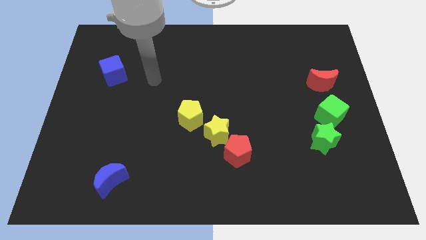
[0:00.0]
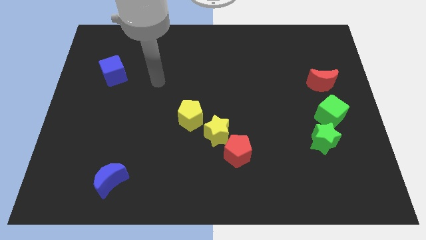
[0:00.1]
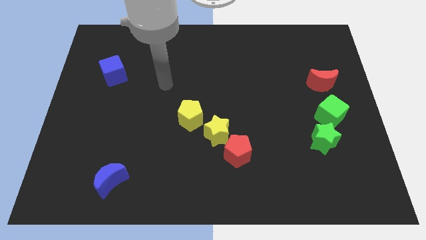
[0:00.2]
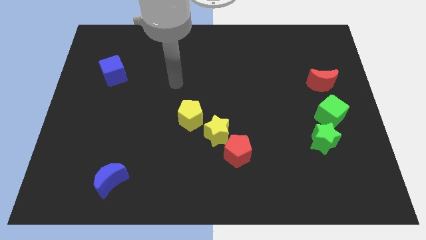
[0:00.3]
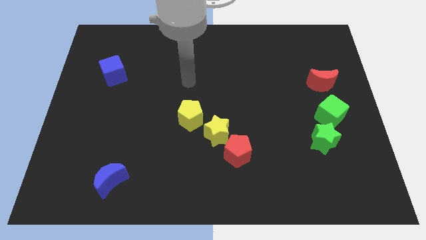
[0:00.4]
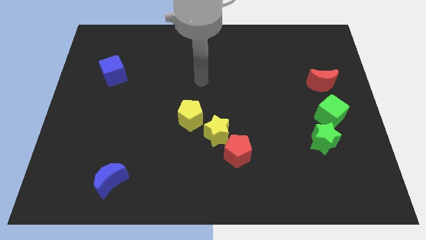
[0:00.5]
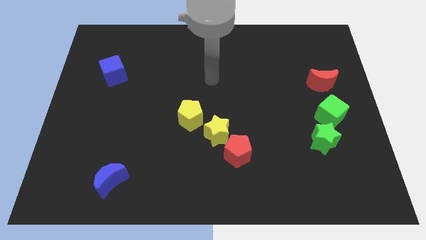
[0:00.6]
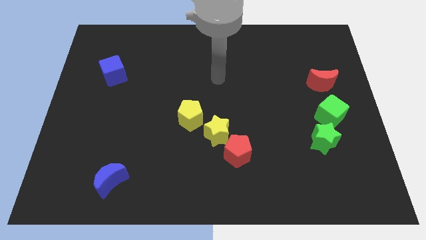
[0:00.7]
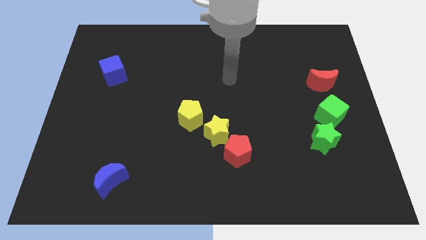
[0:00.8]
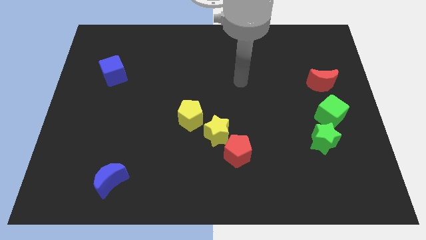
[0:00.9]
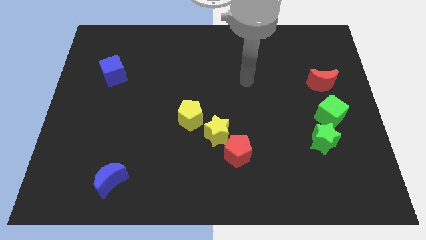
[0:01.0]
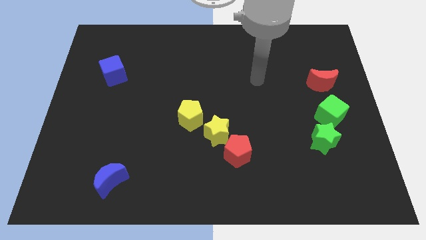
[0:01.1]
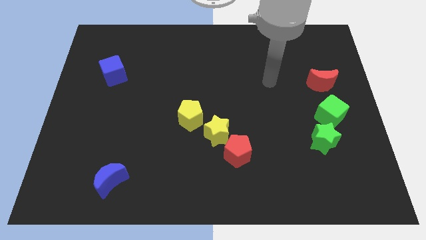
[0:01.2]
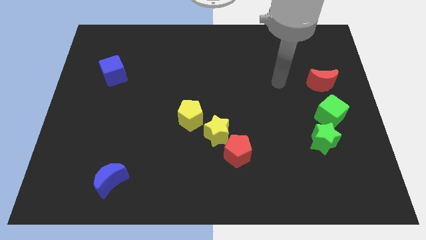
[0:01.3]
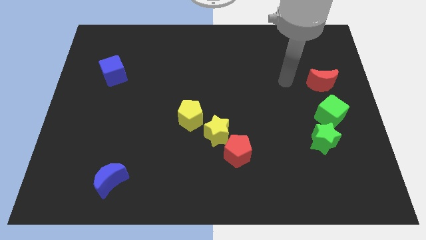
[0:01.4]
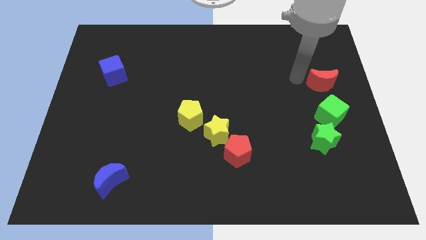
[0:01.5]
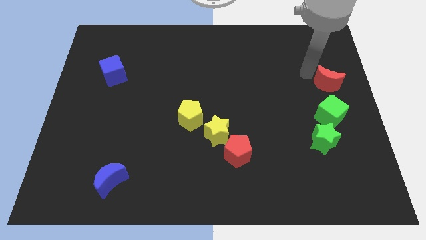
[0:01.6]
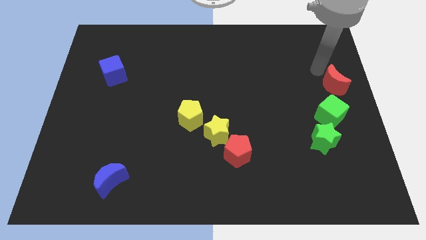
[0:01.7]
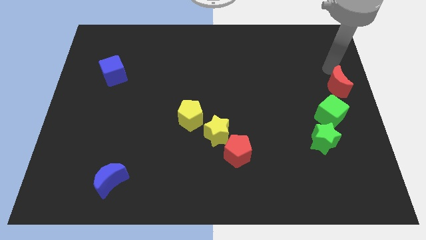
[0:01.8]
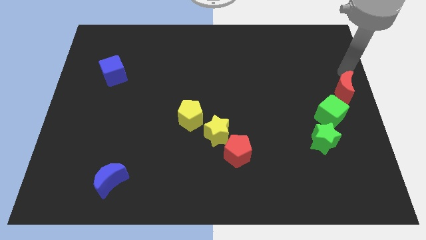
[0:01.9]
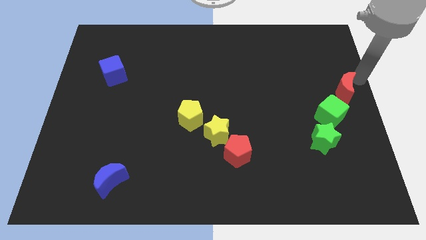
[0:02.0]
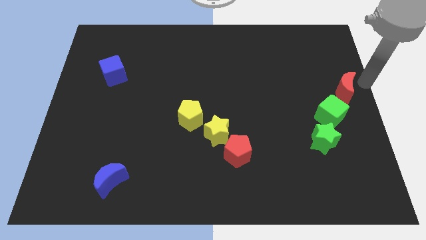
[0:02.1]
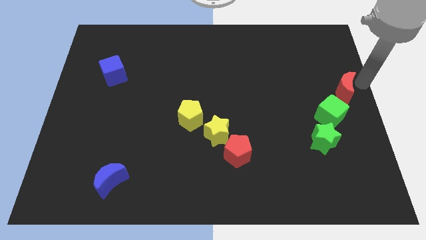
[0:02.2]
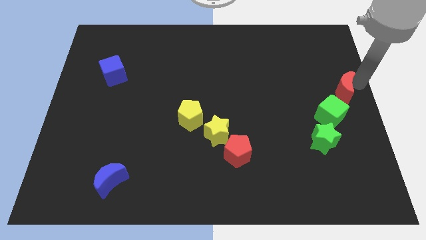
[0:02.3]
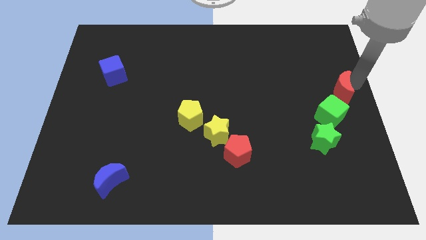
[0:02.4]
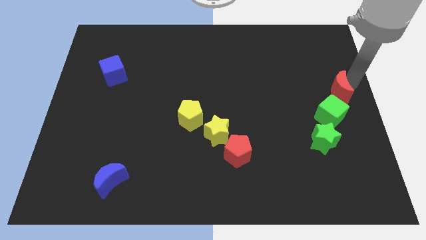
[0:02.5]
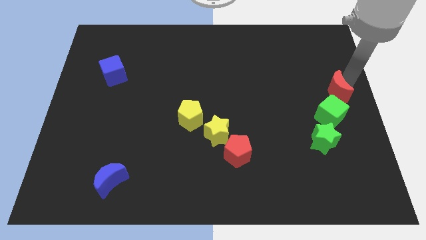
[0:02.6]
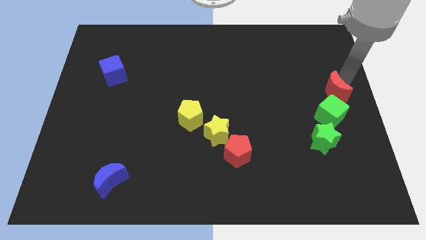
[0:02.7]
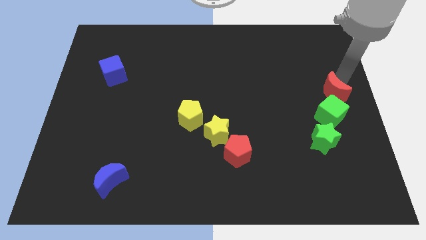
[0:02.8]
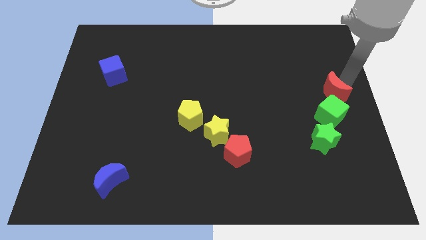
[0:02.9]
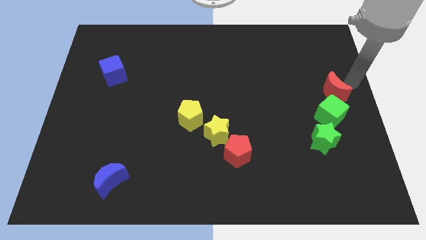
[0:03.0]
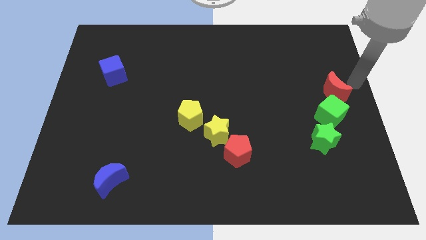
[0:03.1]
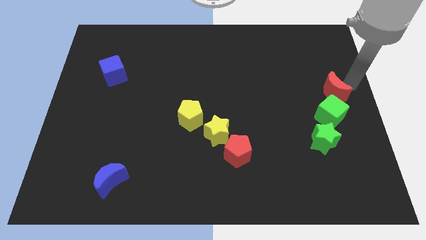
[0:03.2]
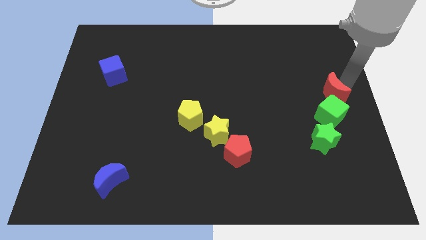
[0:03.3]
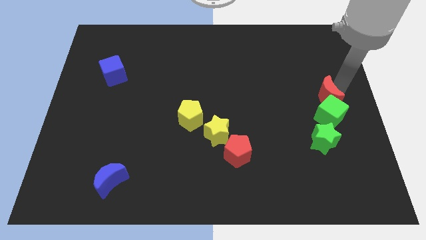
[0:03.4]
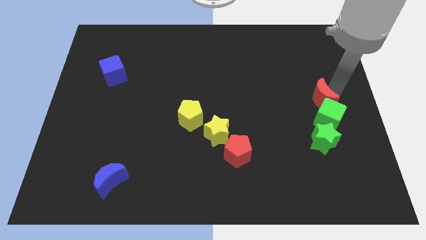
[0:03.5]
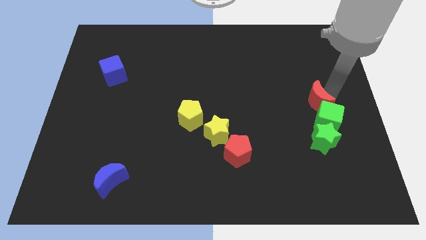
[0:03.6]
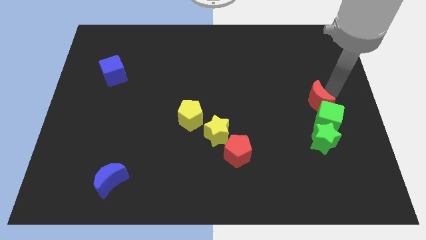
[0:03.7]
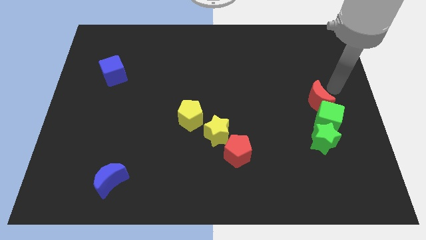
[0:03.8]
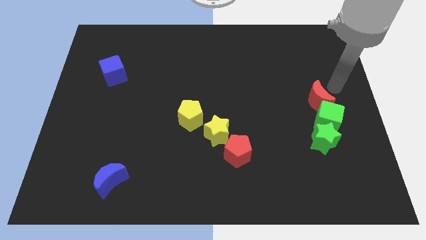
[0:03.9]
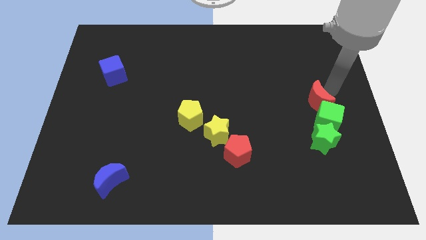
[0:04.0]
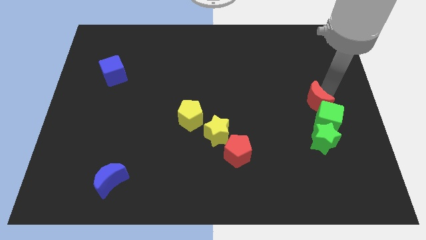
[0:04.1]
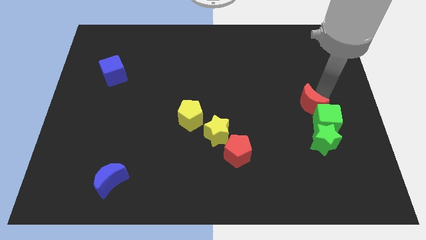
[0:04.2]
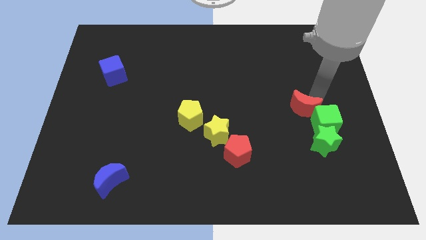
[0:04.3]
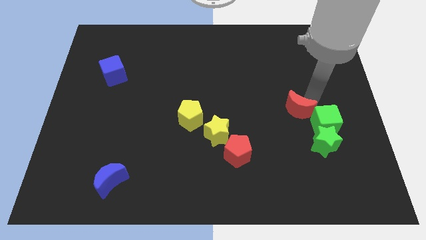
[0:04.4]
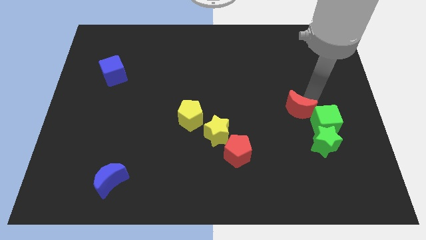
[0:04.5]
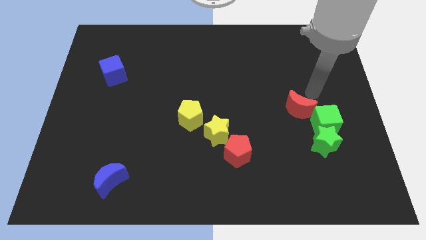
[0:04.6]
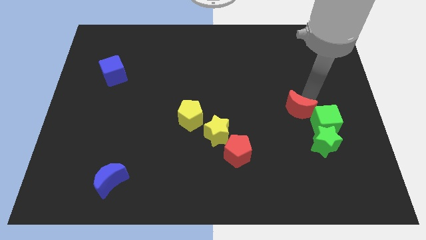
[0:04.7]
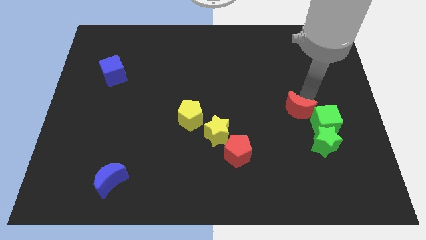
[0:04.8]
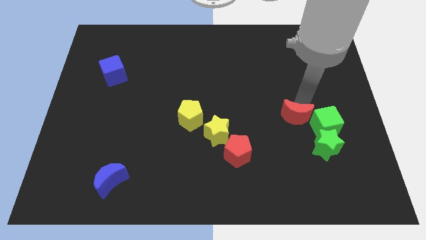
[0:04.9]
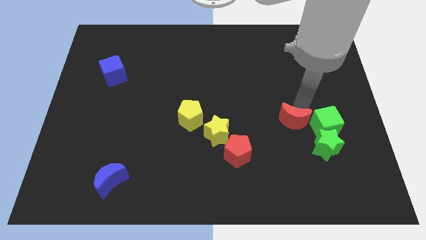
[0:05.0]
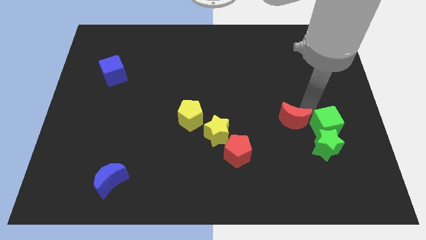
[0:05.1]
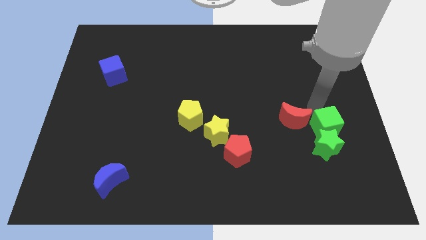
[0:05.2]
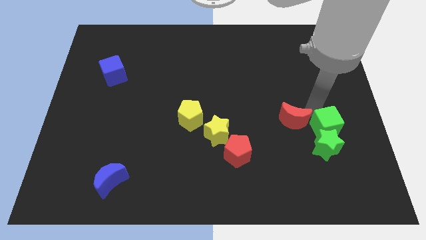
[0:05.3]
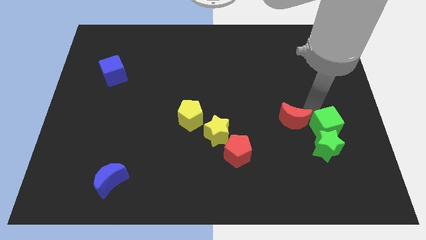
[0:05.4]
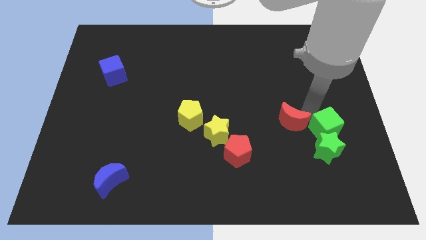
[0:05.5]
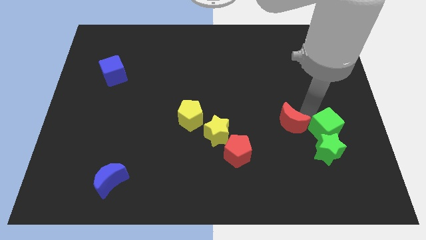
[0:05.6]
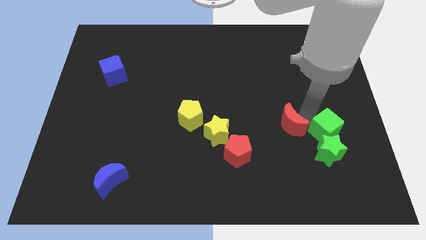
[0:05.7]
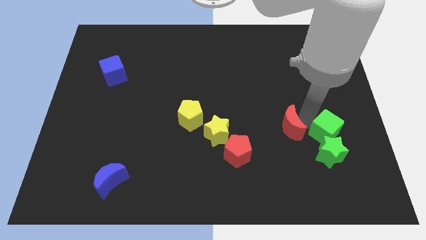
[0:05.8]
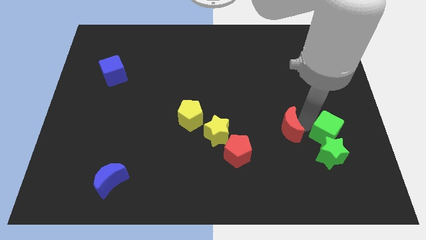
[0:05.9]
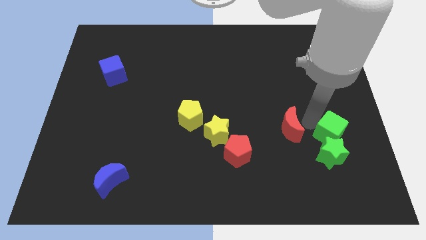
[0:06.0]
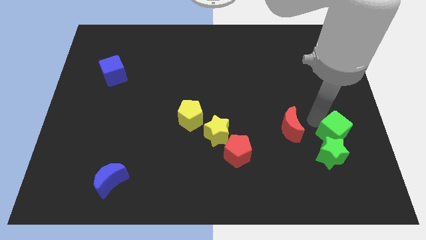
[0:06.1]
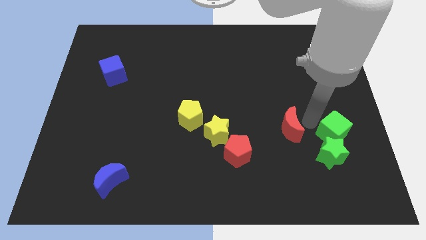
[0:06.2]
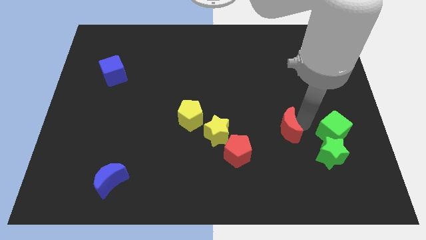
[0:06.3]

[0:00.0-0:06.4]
slide the red moon just right of the yellow star

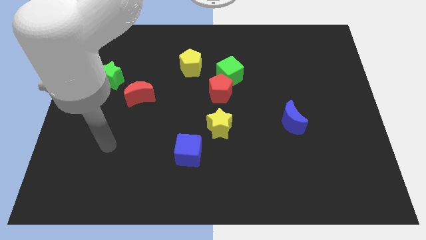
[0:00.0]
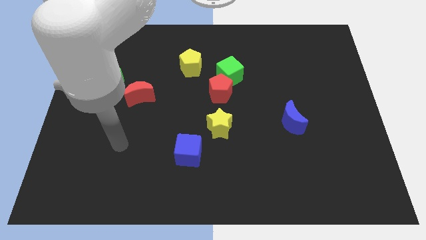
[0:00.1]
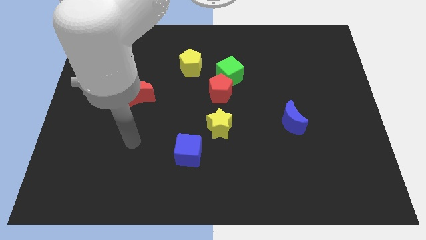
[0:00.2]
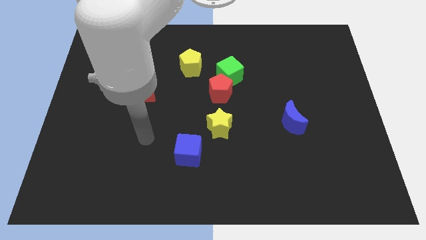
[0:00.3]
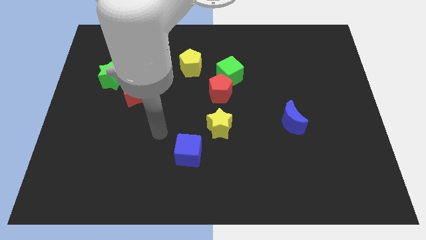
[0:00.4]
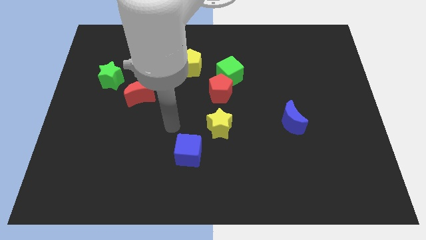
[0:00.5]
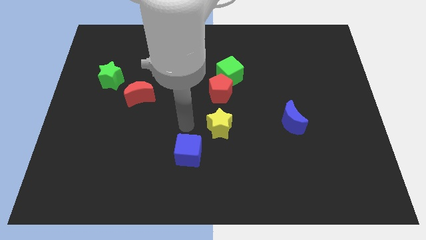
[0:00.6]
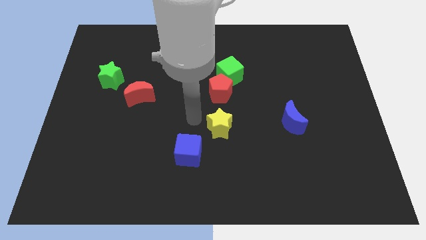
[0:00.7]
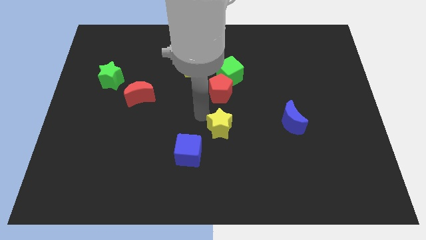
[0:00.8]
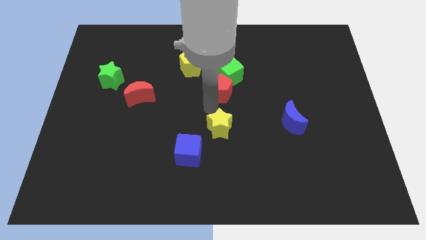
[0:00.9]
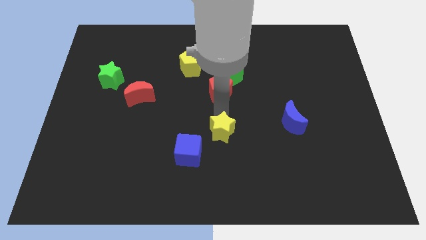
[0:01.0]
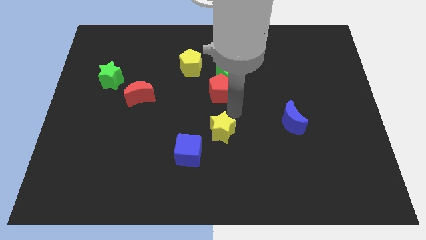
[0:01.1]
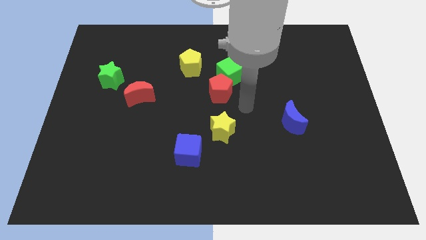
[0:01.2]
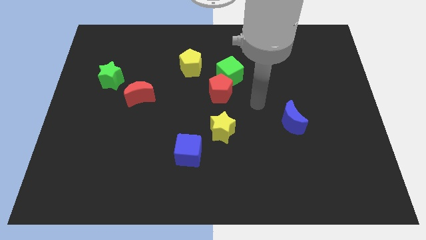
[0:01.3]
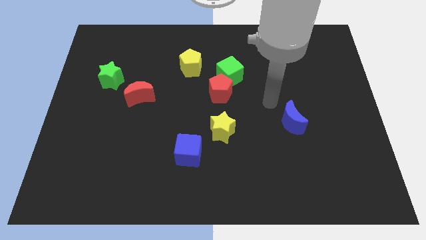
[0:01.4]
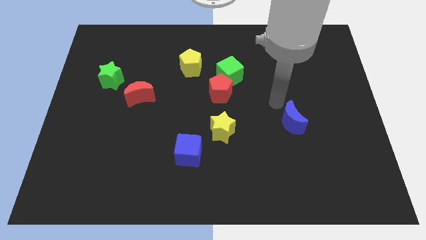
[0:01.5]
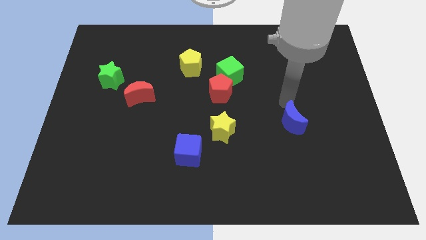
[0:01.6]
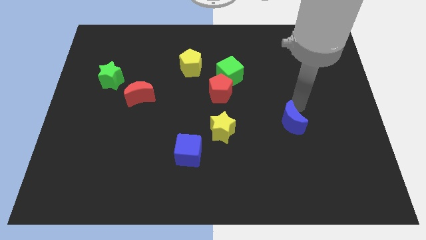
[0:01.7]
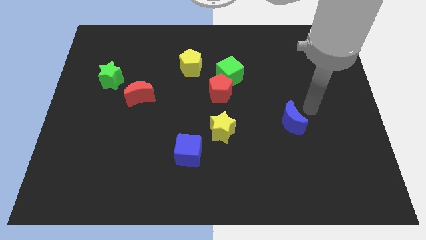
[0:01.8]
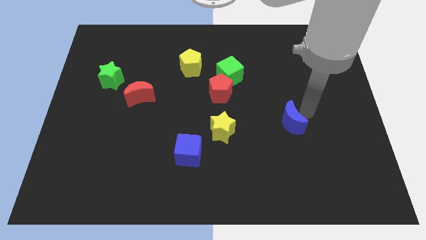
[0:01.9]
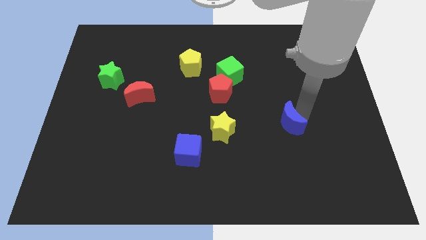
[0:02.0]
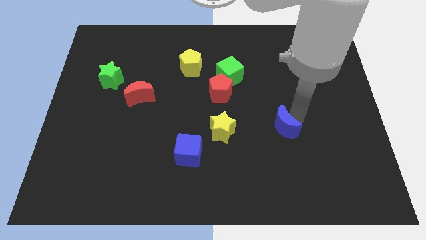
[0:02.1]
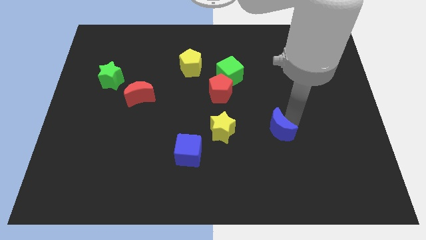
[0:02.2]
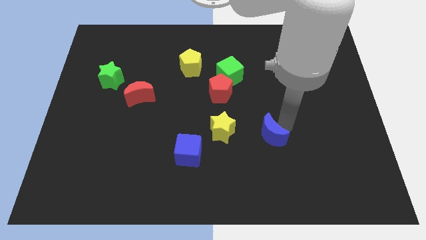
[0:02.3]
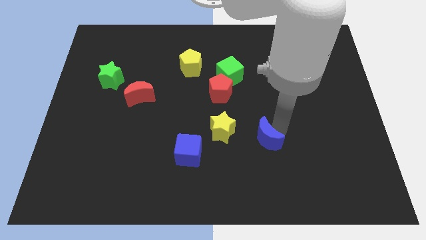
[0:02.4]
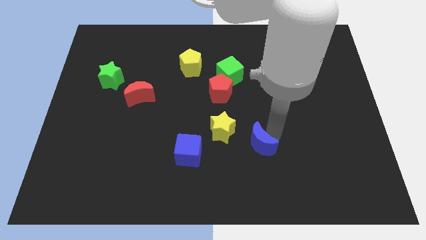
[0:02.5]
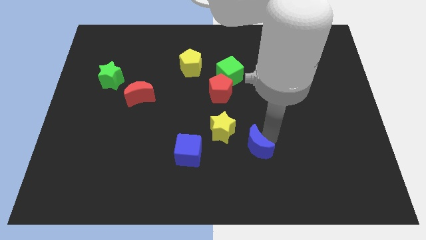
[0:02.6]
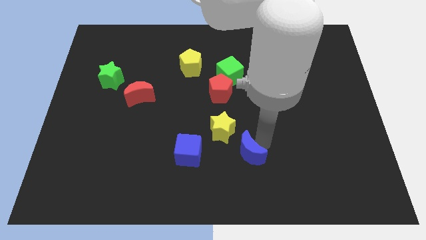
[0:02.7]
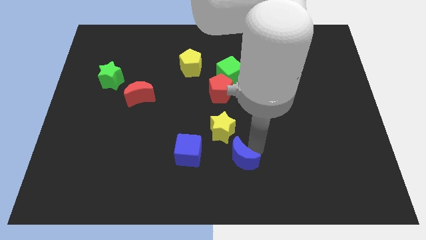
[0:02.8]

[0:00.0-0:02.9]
slide the blue moon to the bottom of the yellow star
